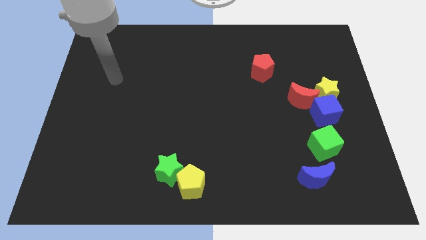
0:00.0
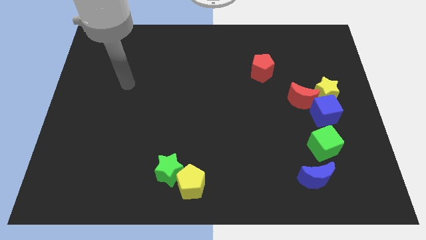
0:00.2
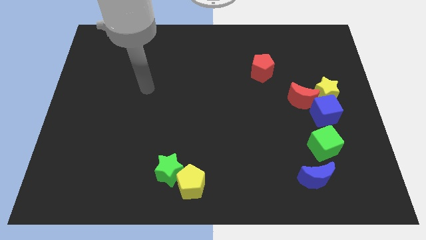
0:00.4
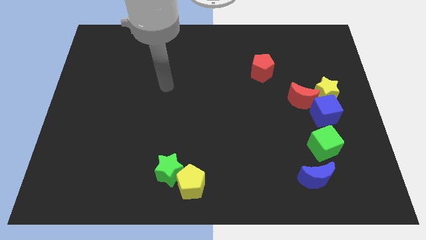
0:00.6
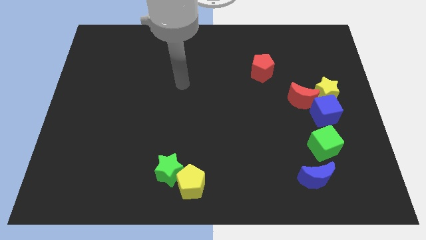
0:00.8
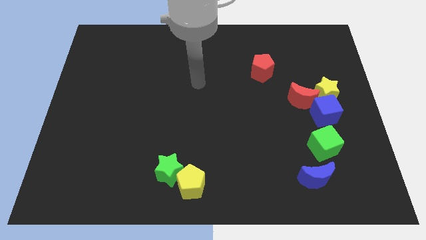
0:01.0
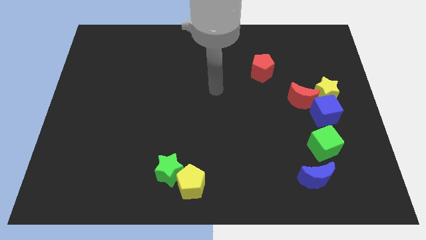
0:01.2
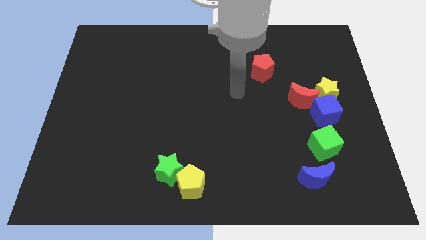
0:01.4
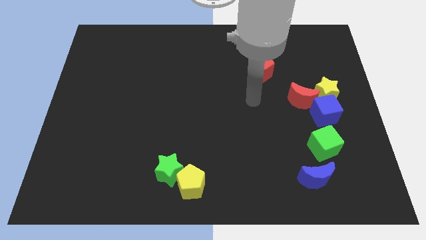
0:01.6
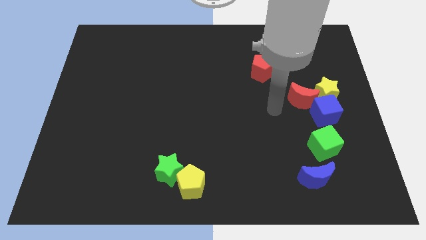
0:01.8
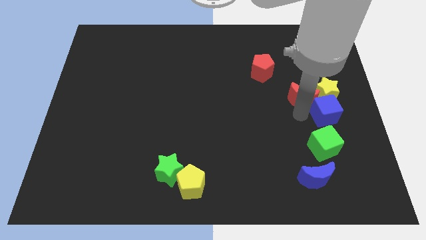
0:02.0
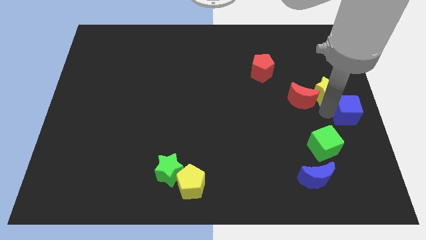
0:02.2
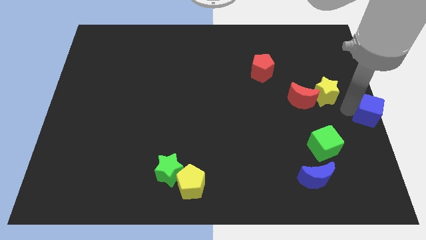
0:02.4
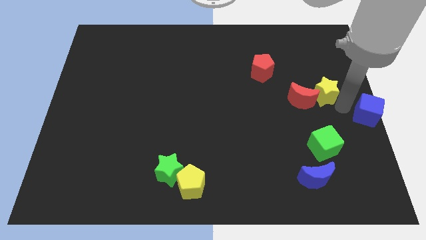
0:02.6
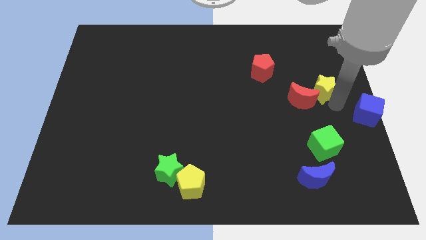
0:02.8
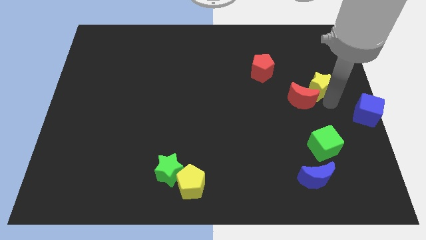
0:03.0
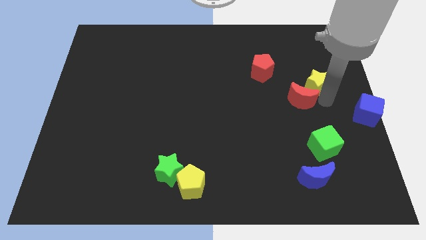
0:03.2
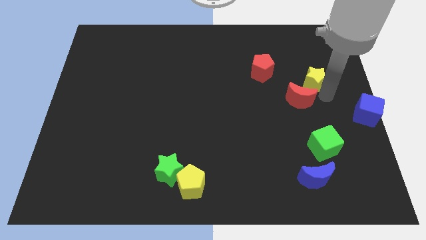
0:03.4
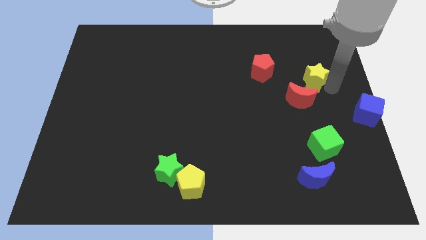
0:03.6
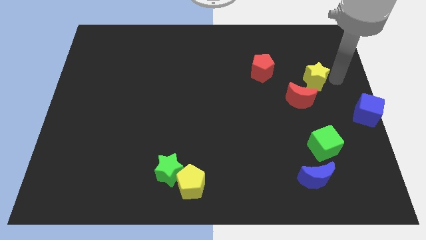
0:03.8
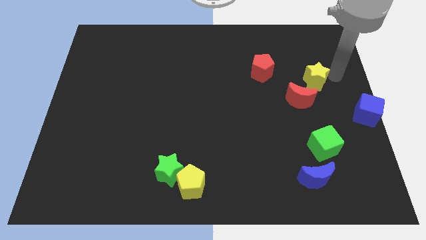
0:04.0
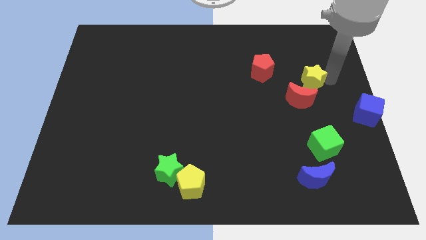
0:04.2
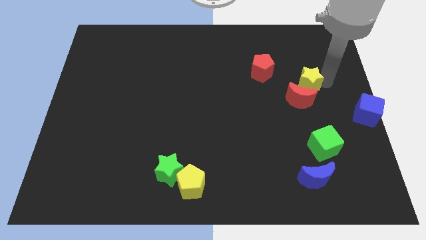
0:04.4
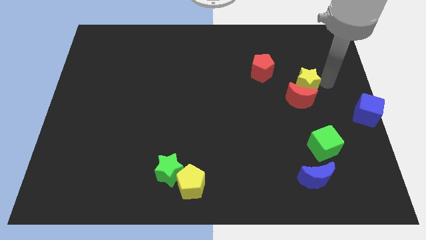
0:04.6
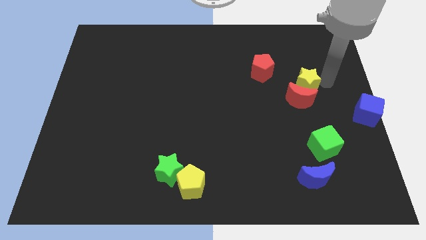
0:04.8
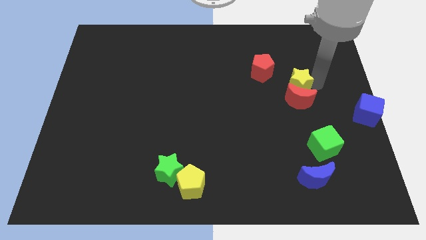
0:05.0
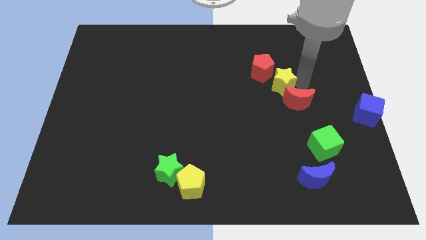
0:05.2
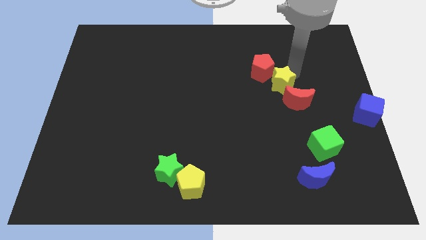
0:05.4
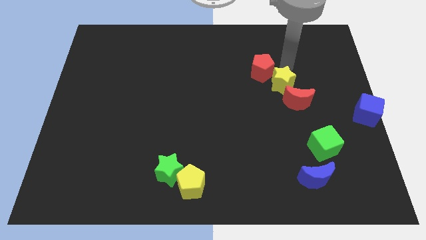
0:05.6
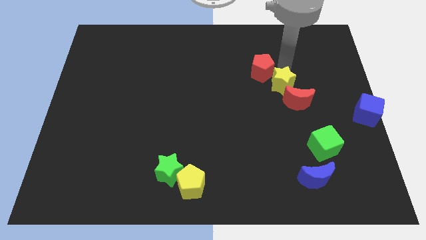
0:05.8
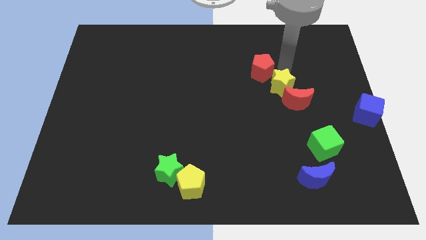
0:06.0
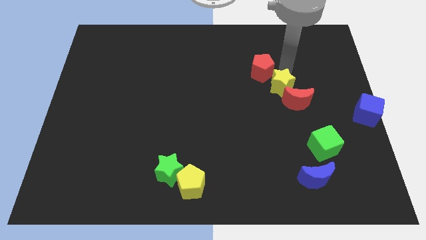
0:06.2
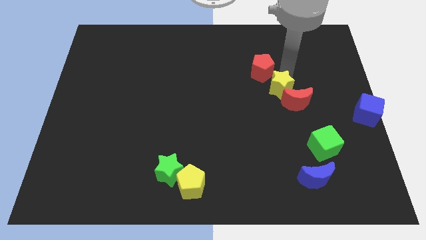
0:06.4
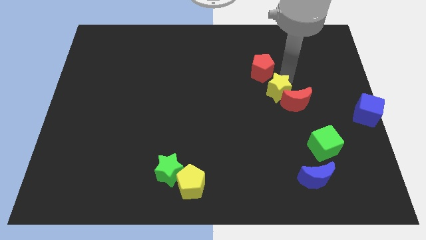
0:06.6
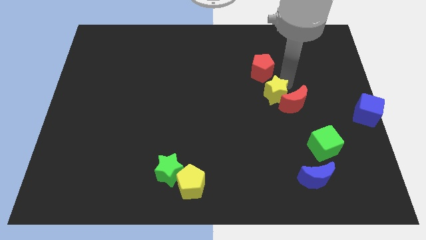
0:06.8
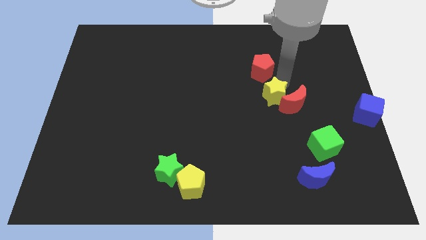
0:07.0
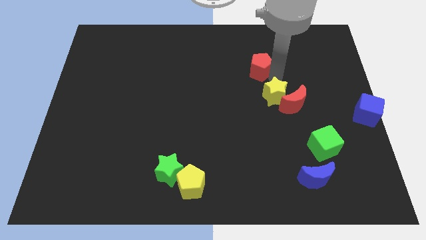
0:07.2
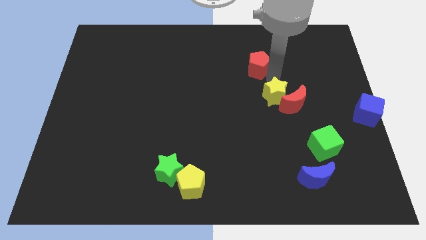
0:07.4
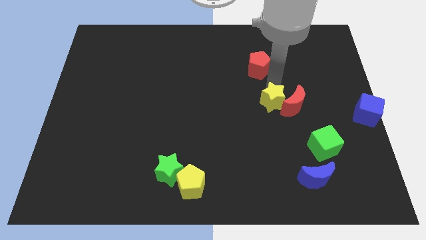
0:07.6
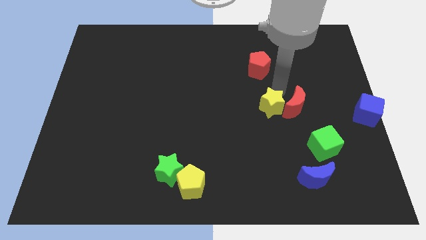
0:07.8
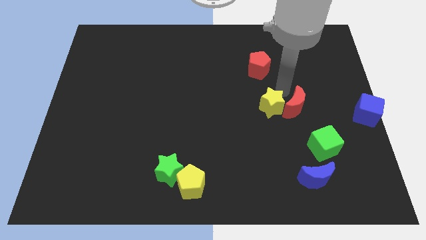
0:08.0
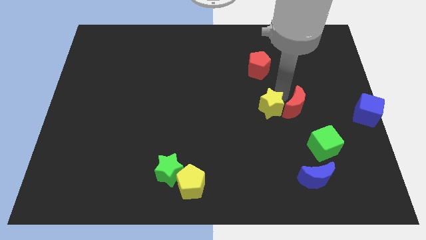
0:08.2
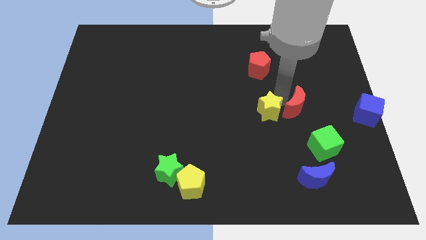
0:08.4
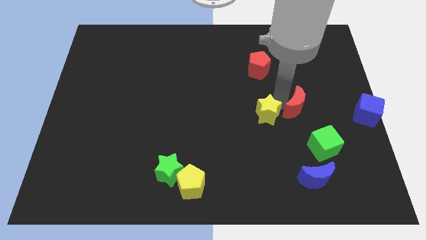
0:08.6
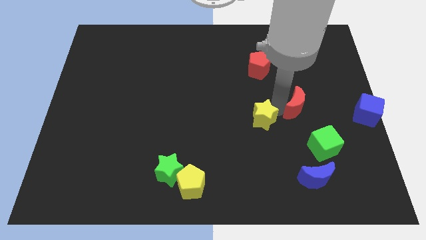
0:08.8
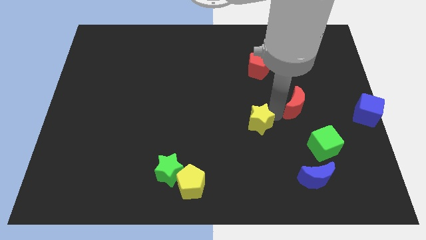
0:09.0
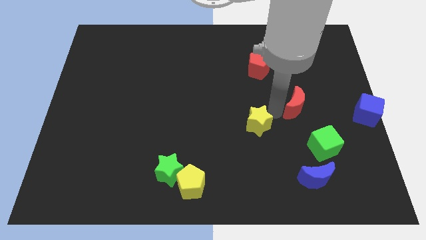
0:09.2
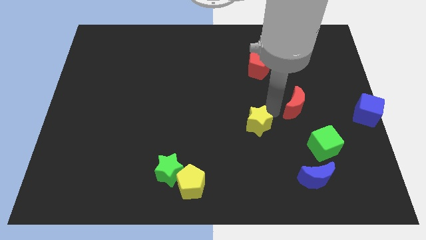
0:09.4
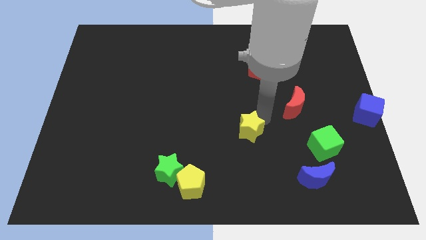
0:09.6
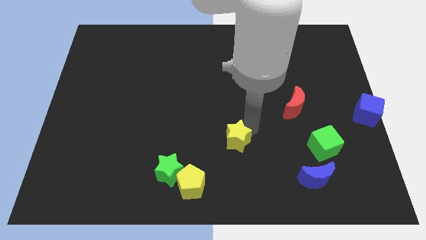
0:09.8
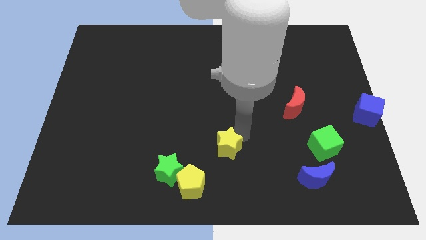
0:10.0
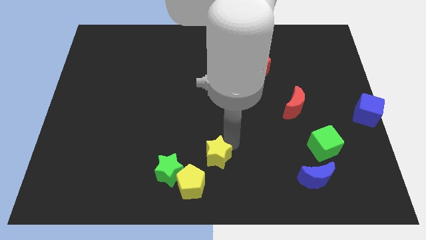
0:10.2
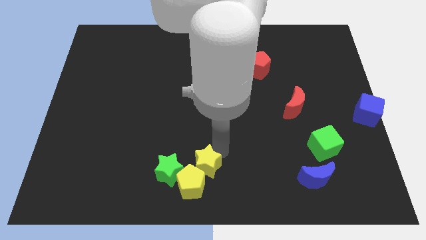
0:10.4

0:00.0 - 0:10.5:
slide the yellow star to the yellow pentagon

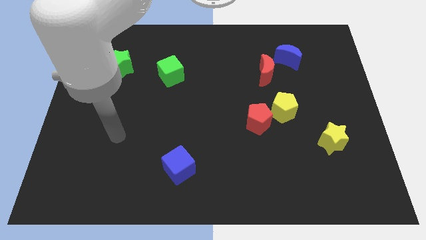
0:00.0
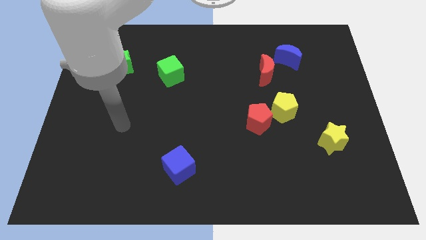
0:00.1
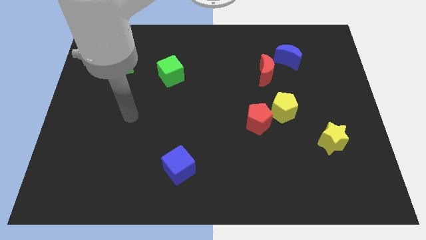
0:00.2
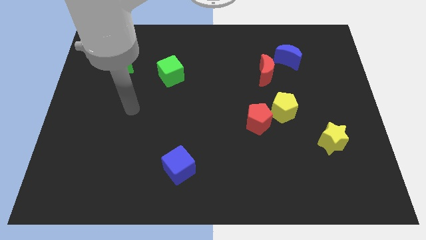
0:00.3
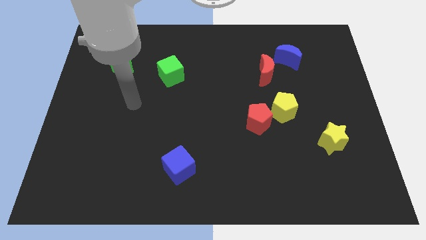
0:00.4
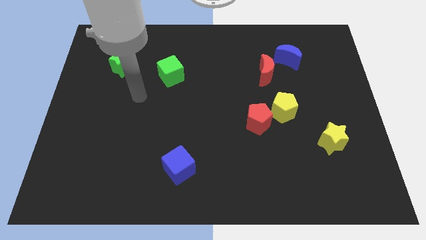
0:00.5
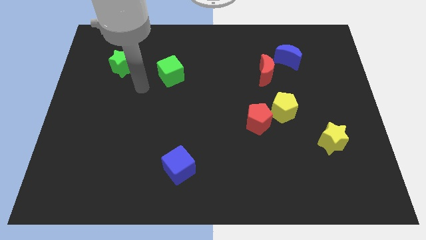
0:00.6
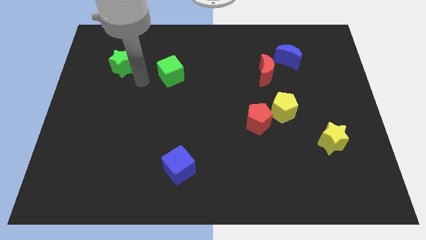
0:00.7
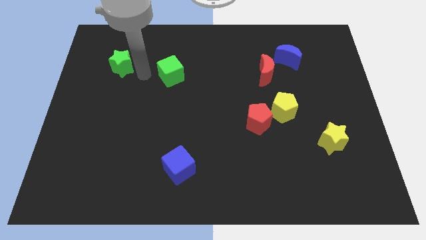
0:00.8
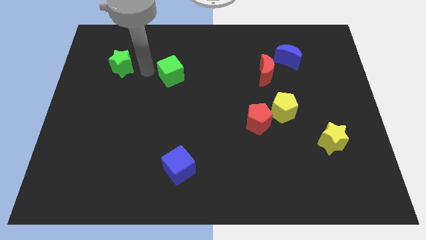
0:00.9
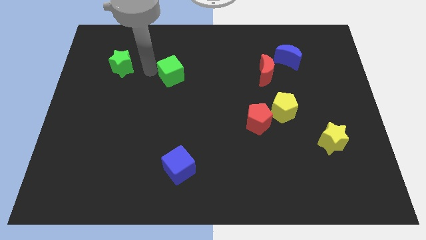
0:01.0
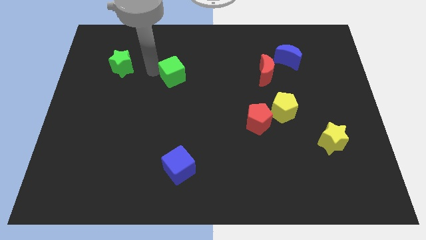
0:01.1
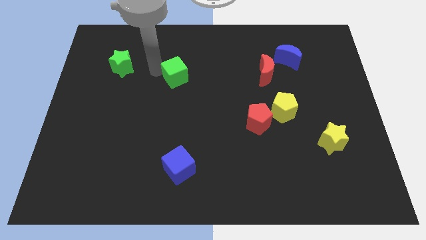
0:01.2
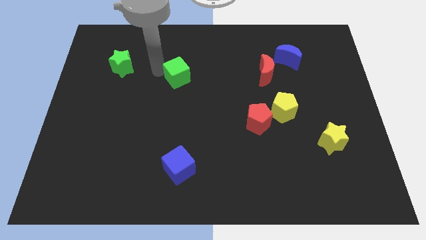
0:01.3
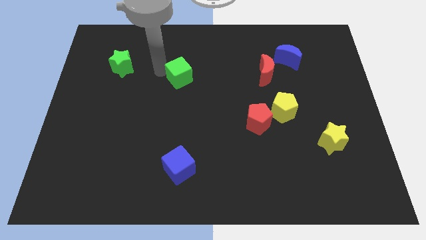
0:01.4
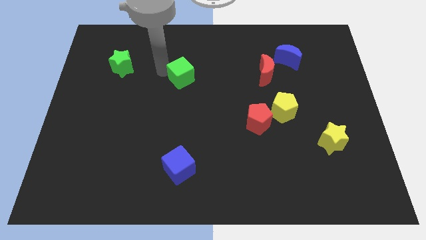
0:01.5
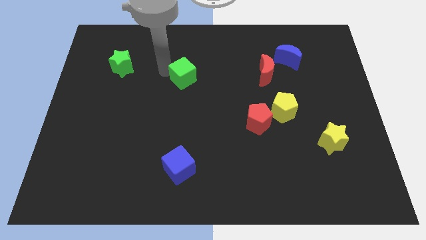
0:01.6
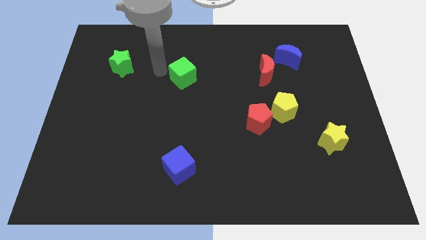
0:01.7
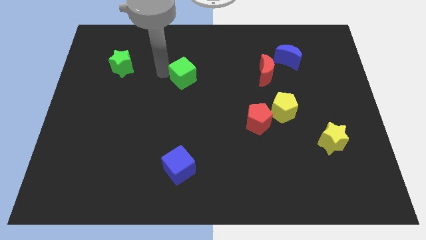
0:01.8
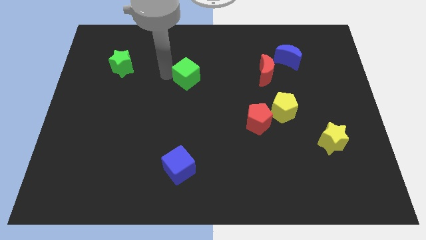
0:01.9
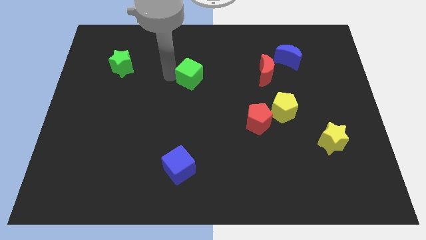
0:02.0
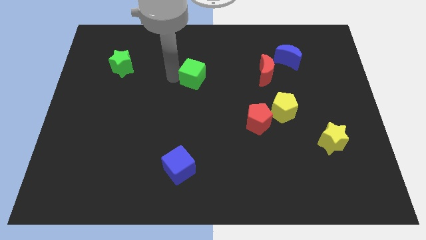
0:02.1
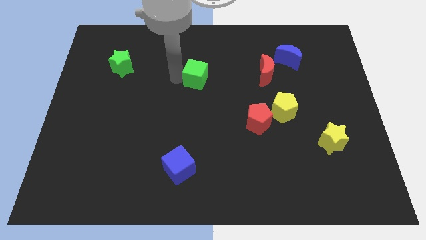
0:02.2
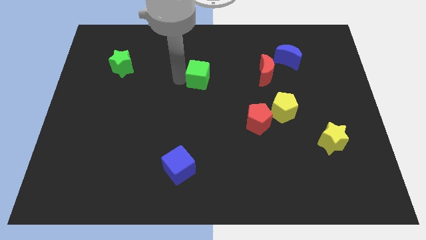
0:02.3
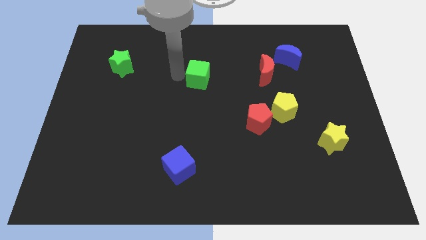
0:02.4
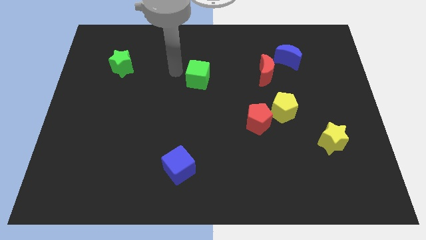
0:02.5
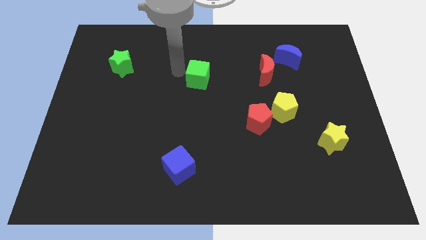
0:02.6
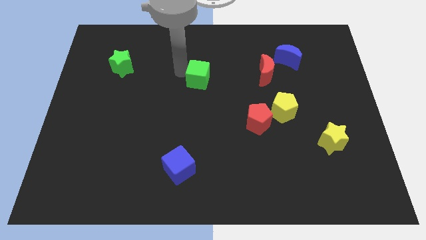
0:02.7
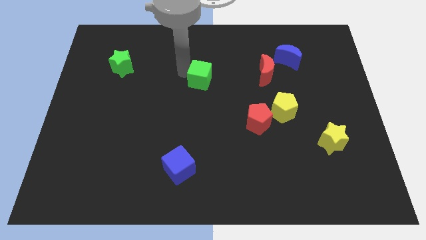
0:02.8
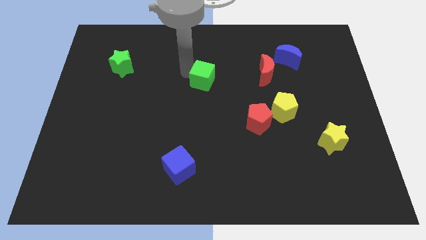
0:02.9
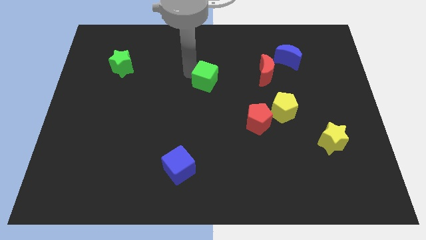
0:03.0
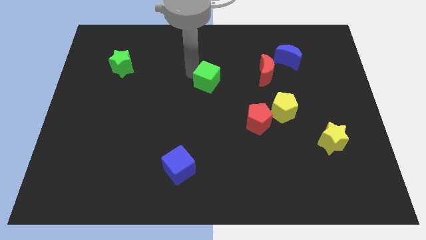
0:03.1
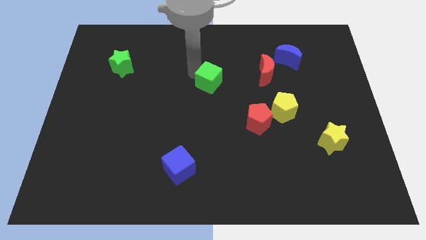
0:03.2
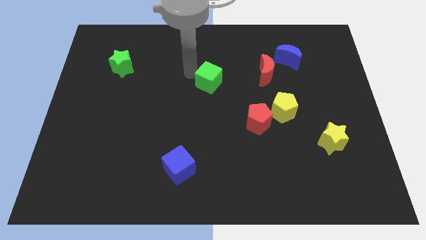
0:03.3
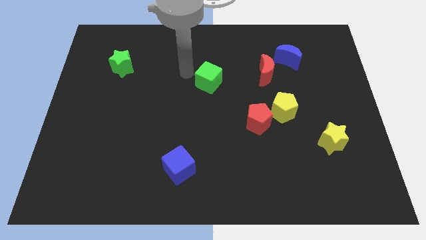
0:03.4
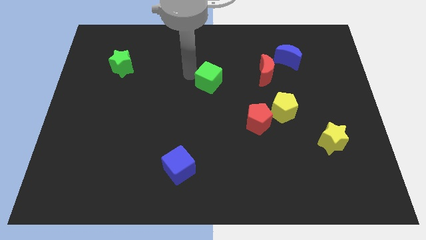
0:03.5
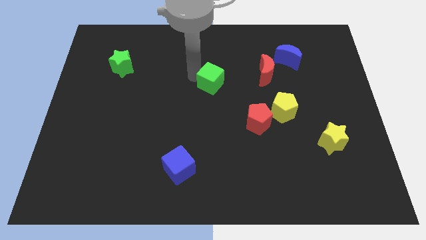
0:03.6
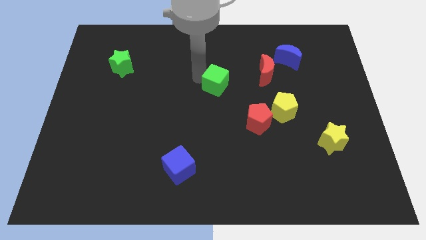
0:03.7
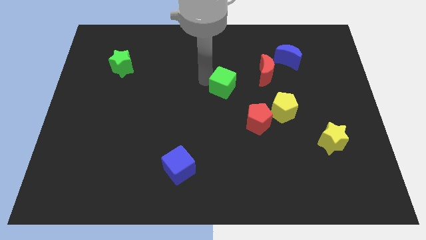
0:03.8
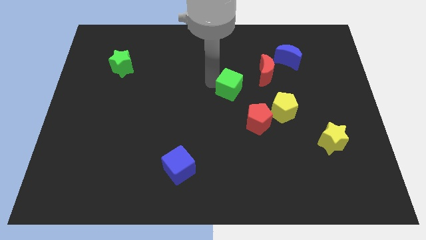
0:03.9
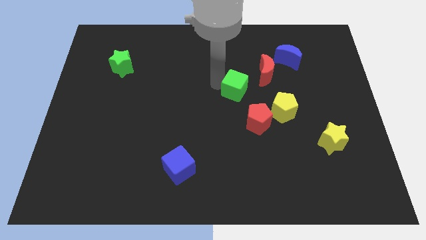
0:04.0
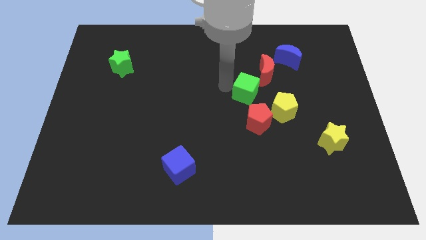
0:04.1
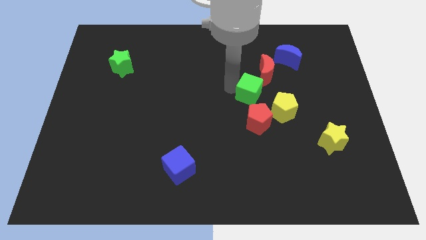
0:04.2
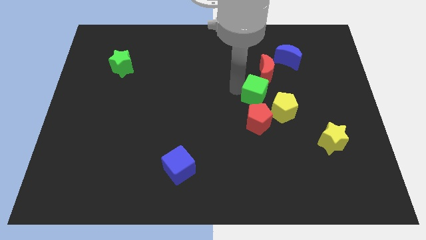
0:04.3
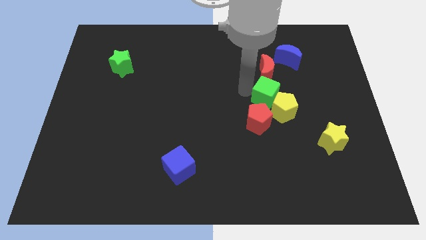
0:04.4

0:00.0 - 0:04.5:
push the green cube close to the yellow pentagon
